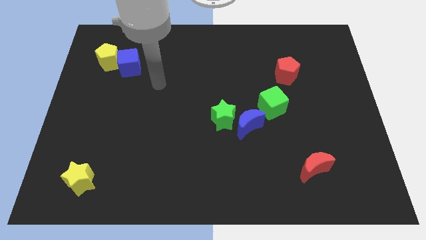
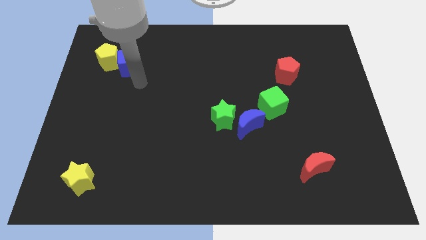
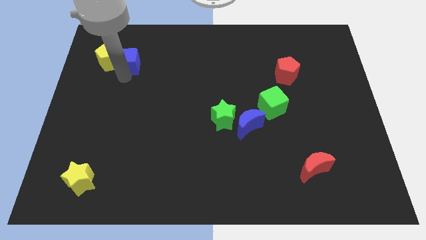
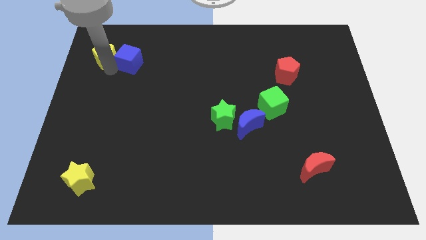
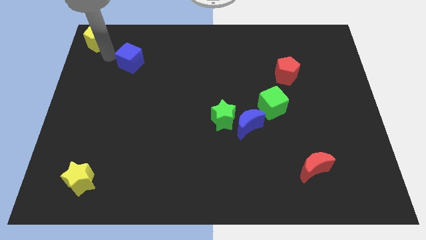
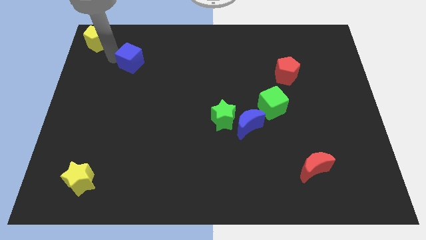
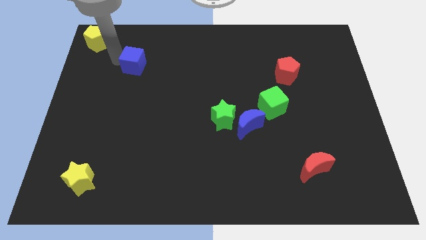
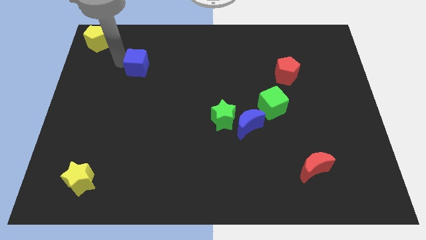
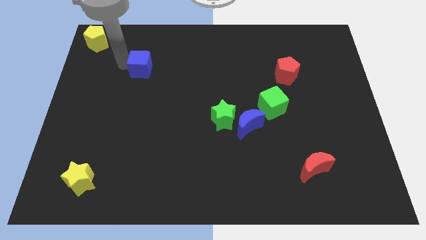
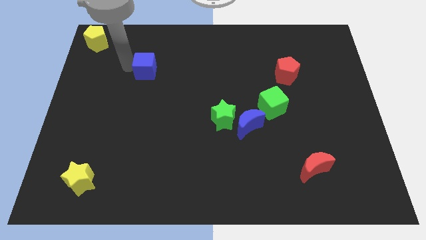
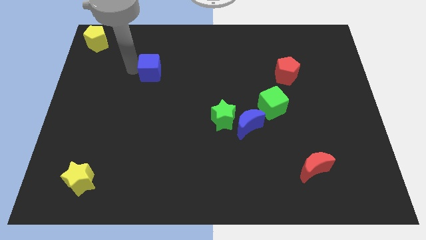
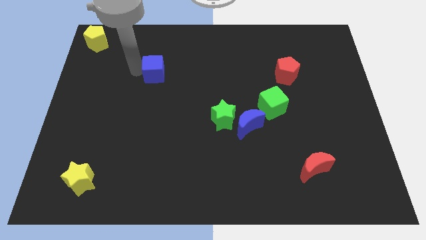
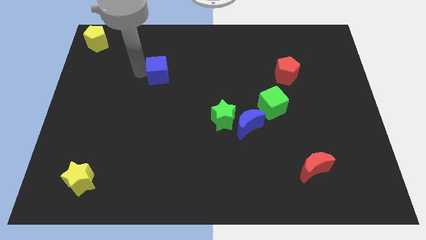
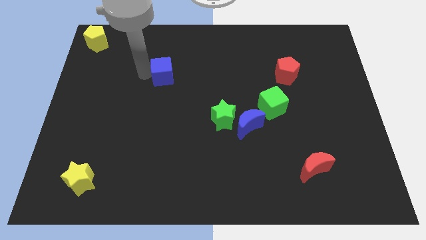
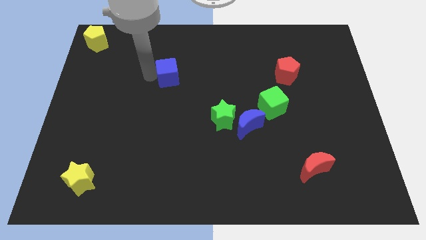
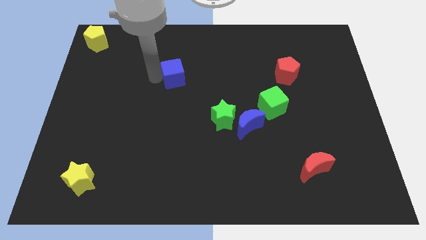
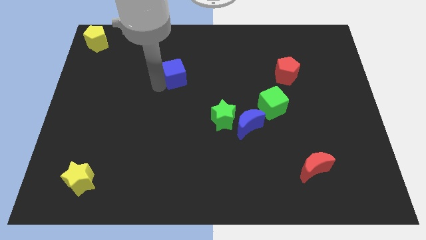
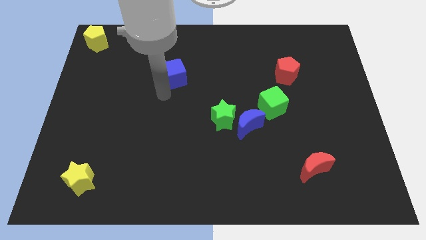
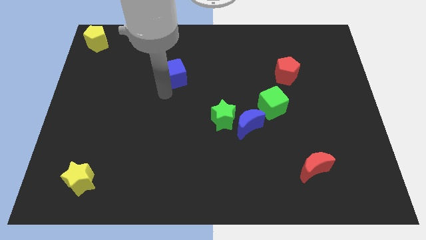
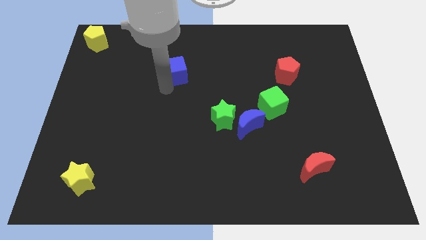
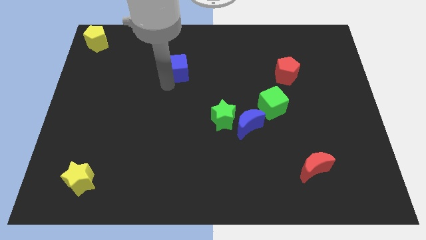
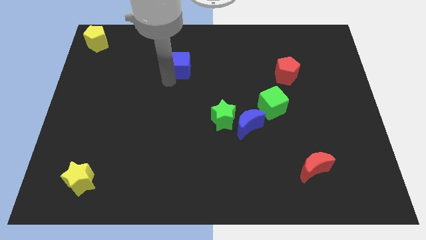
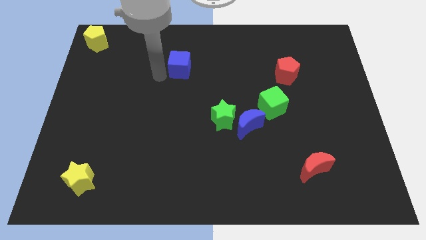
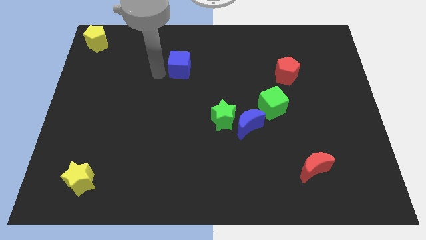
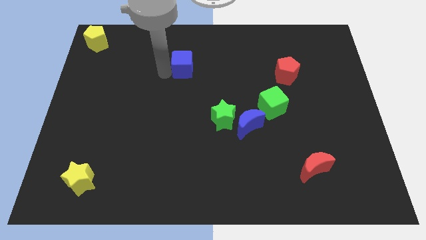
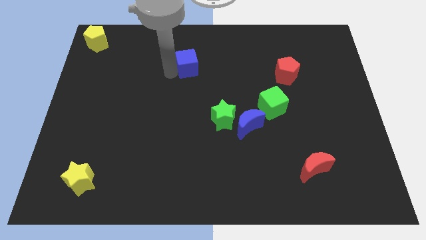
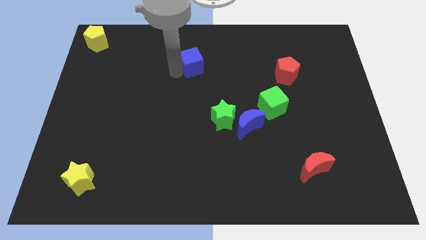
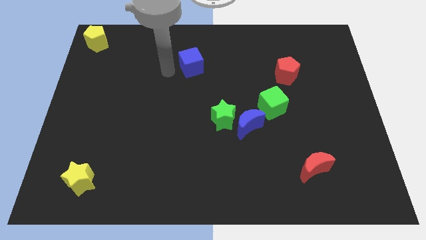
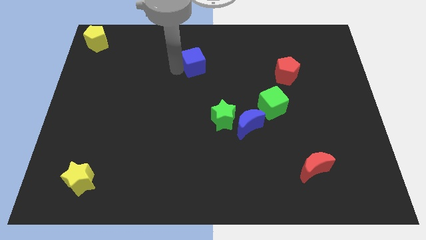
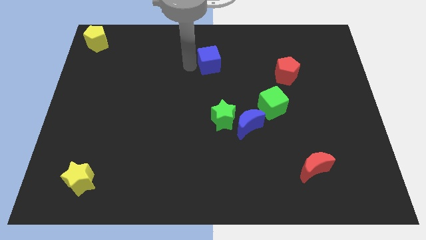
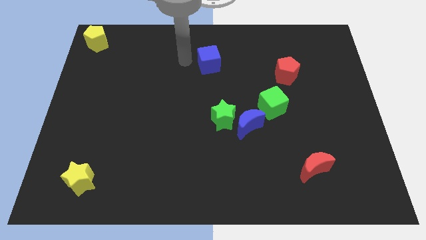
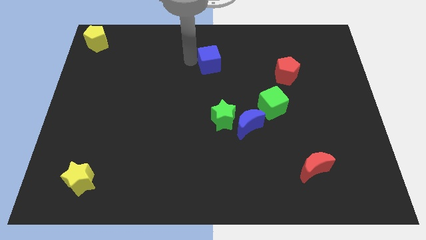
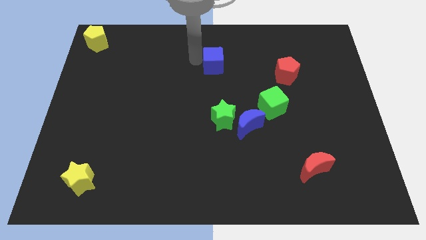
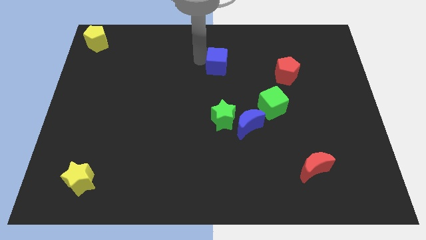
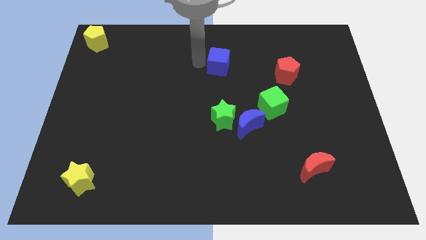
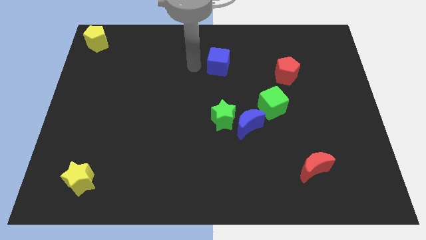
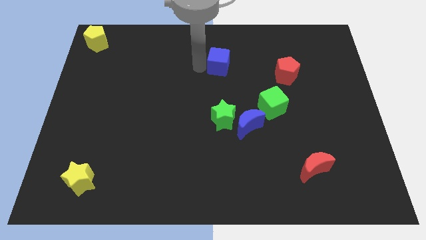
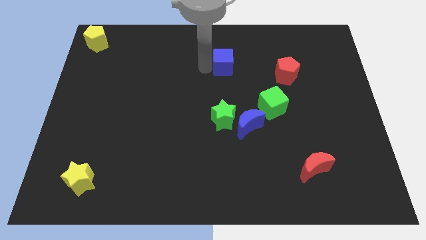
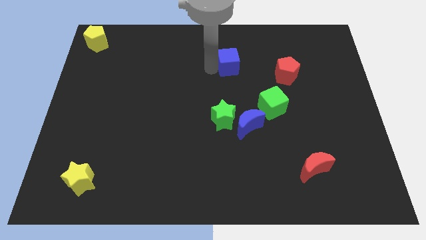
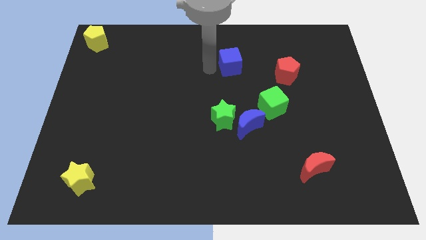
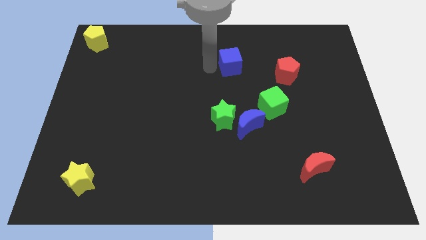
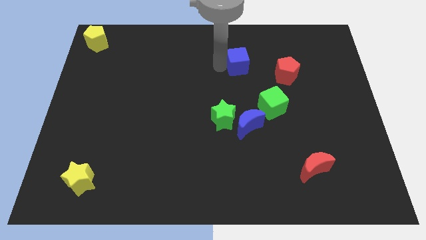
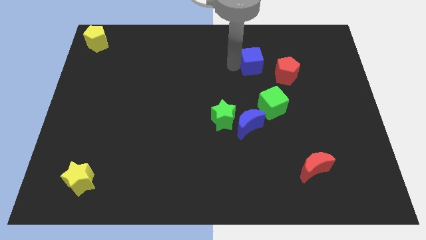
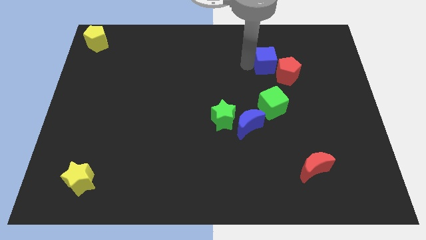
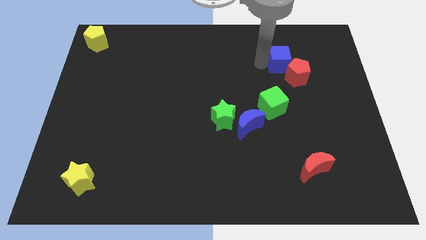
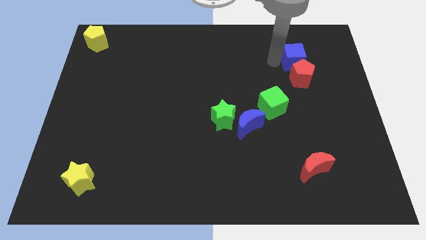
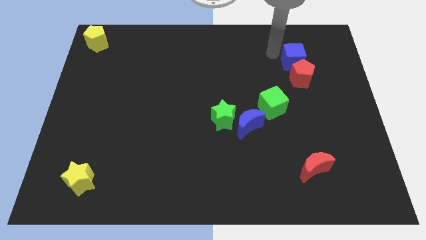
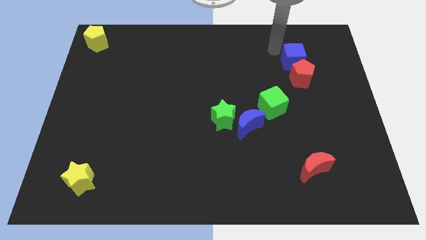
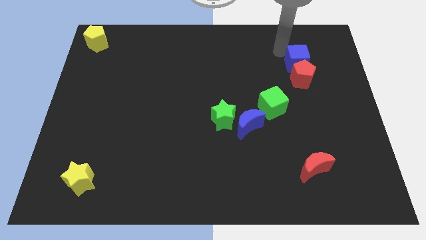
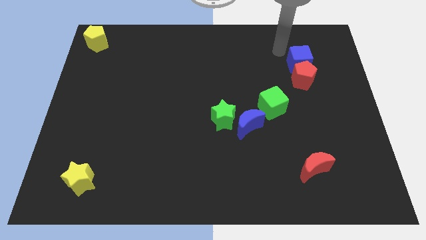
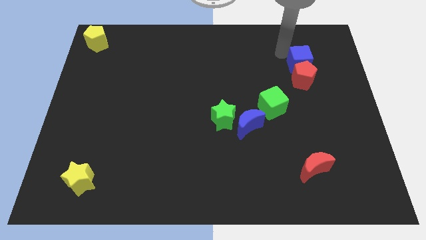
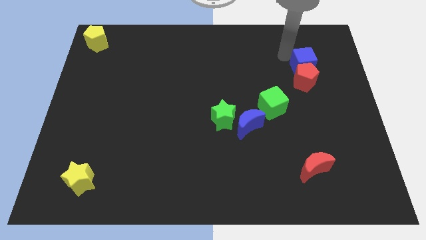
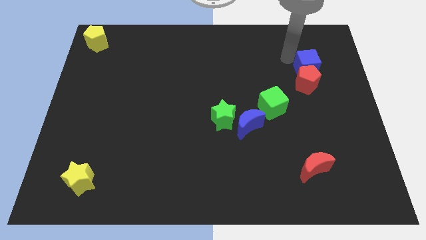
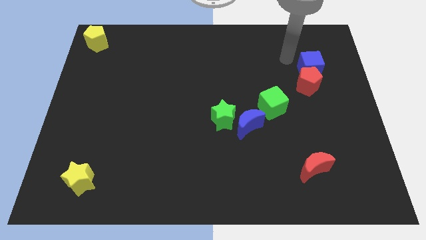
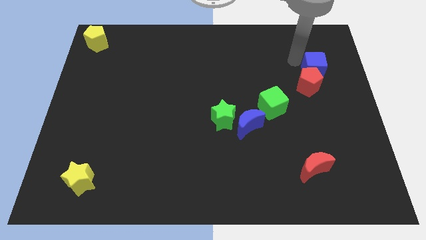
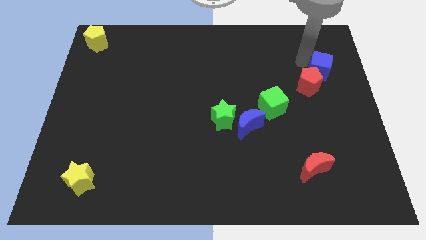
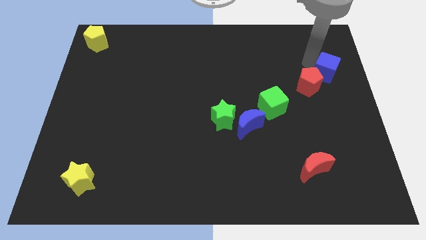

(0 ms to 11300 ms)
slide the blue cube to the right side

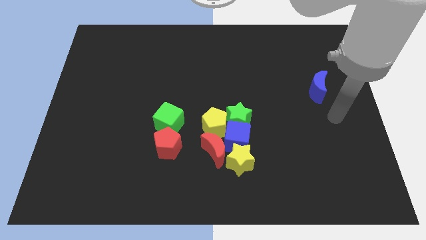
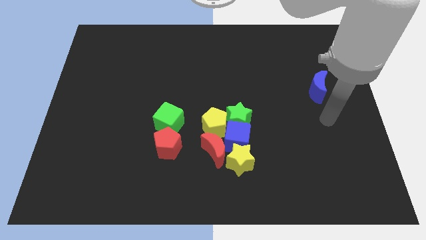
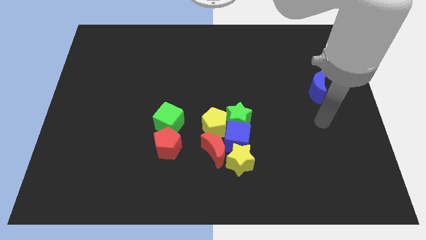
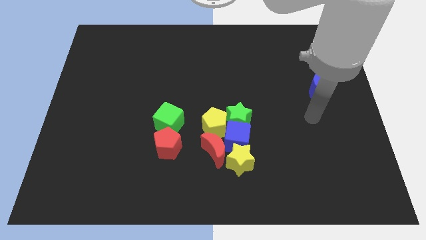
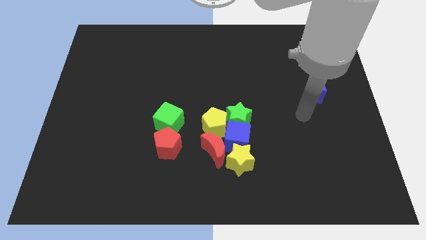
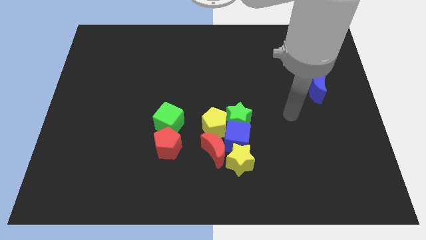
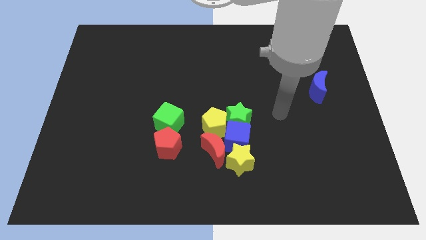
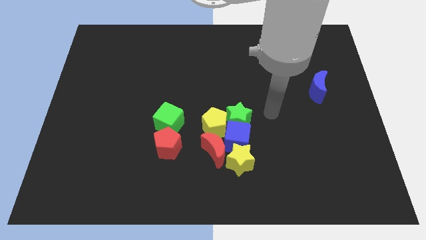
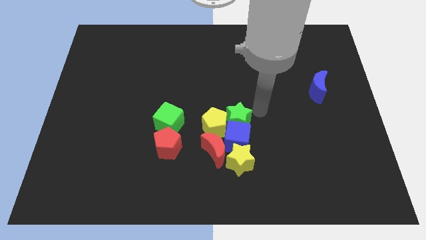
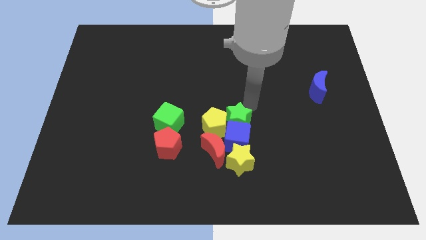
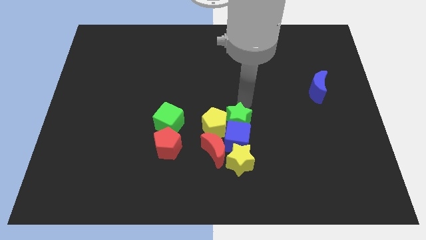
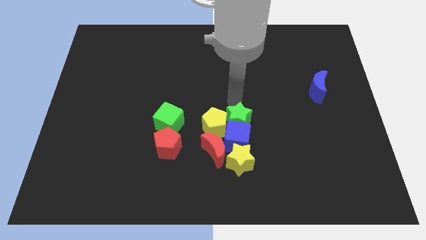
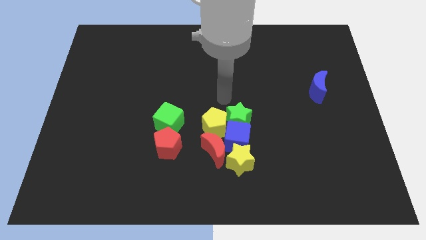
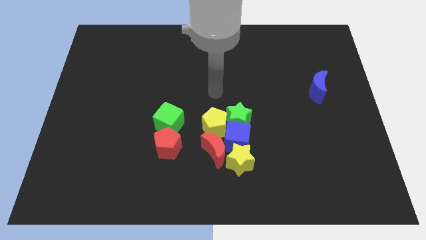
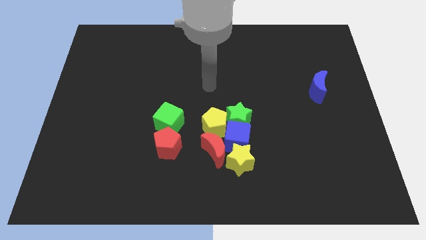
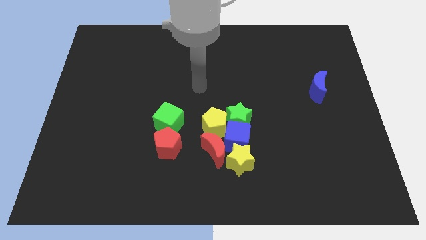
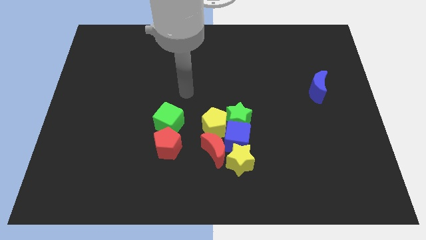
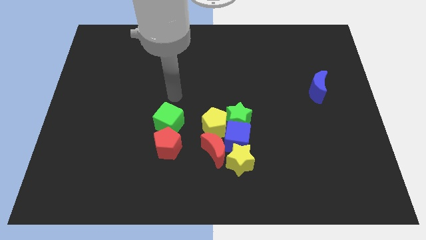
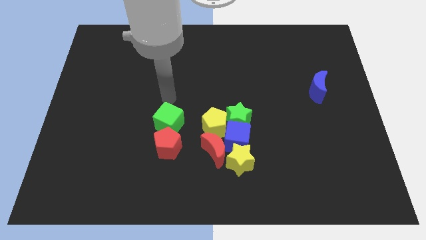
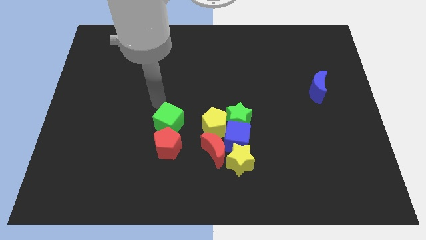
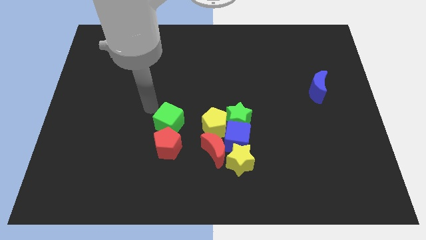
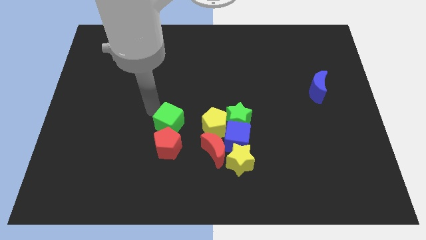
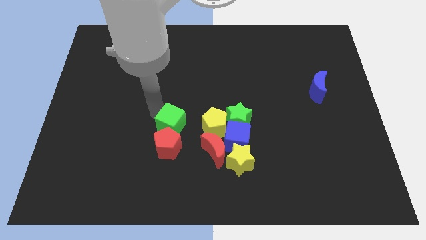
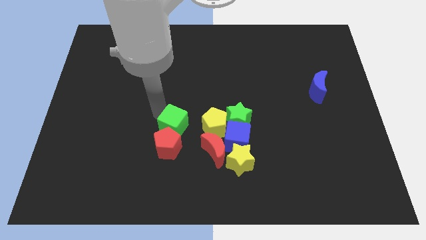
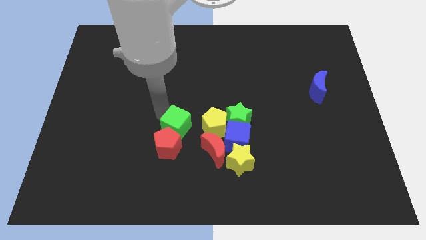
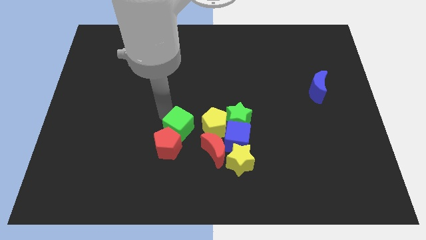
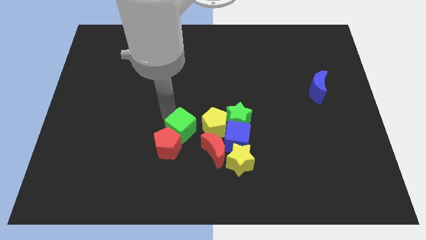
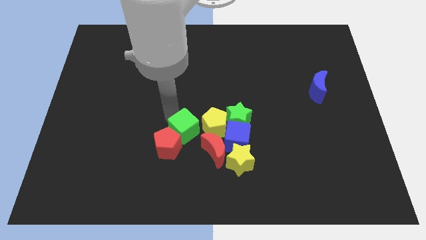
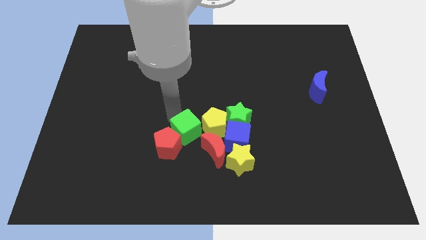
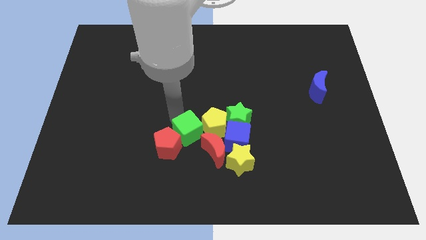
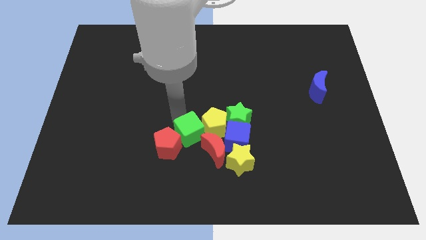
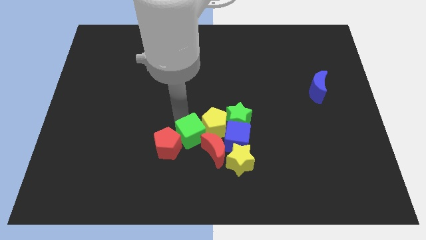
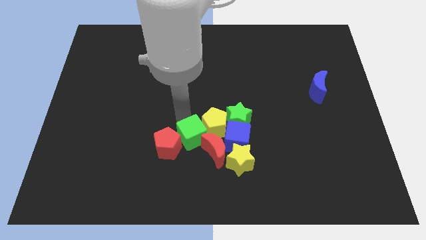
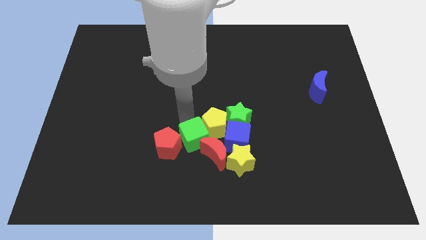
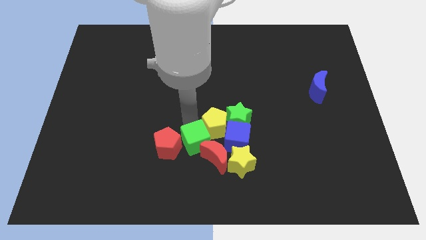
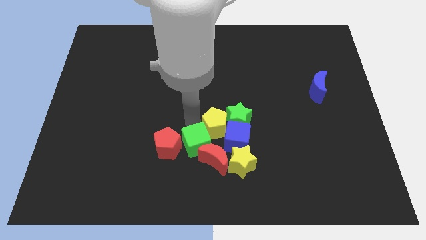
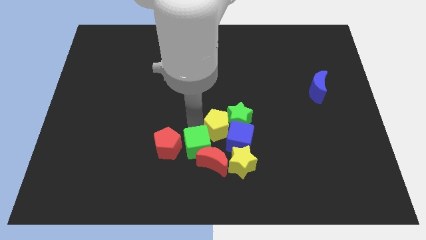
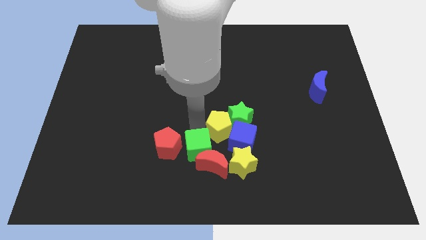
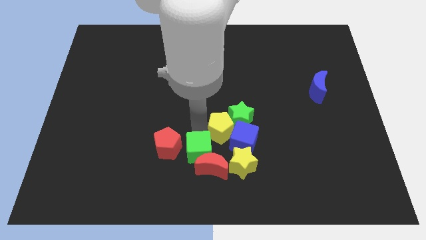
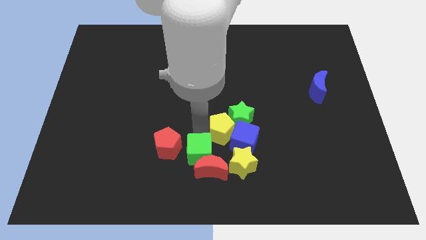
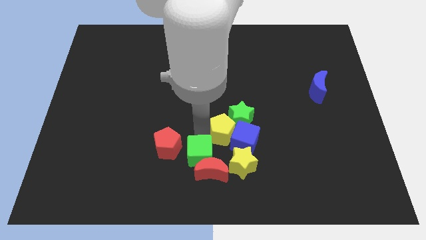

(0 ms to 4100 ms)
slide the green cube to the bottom side
